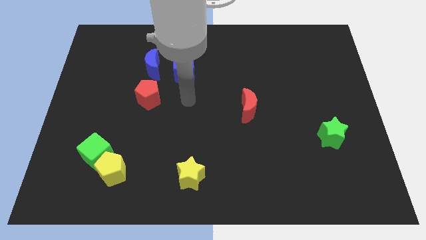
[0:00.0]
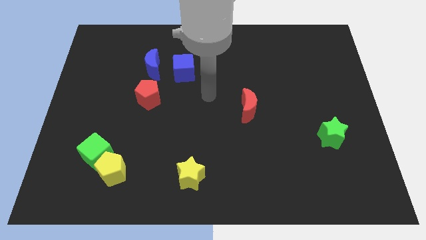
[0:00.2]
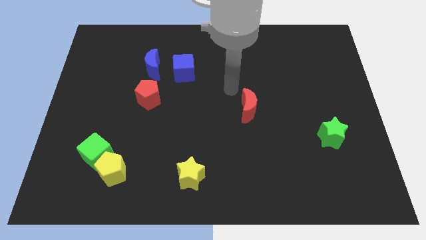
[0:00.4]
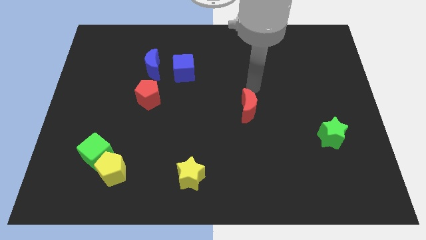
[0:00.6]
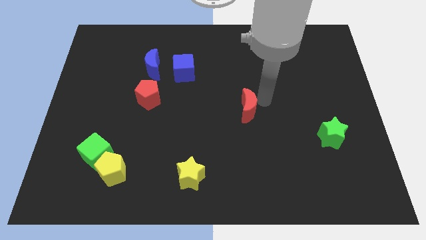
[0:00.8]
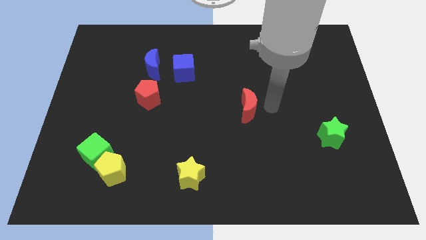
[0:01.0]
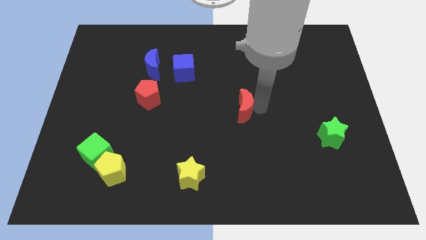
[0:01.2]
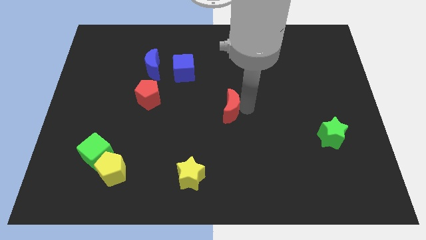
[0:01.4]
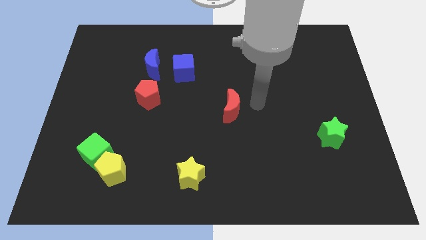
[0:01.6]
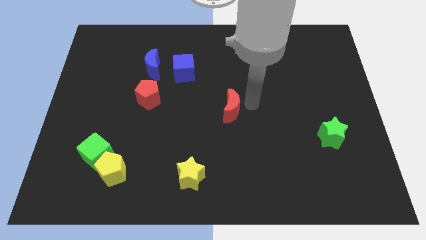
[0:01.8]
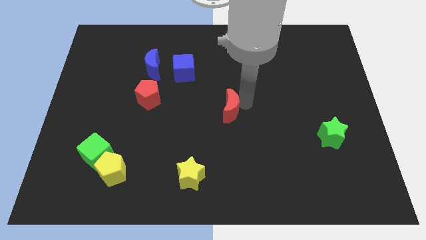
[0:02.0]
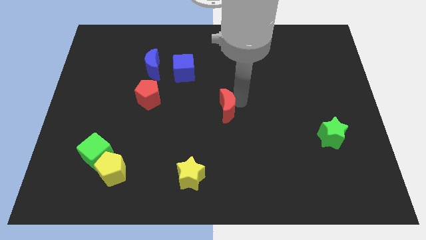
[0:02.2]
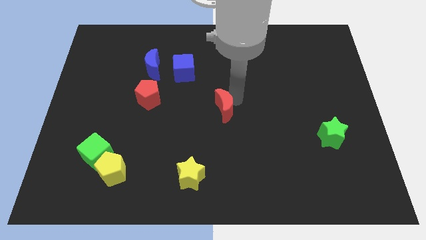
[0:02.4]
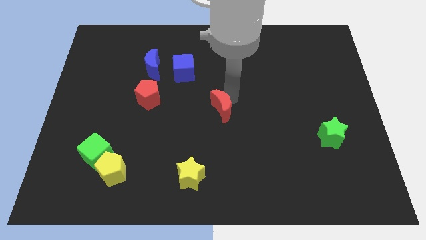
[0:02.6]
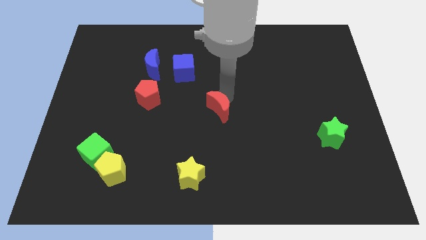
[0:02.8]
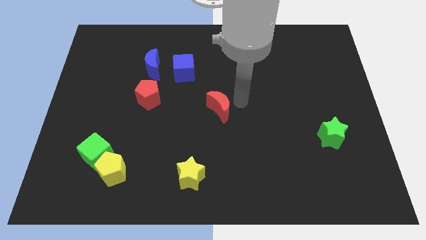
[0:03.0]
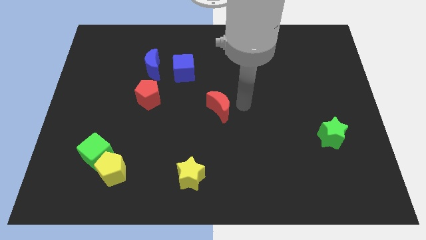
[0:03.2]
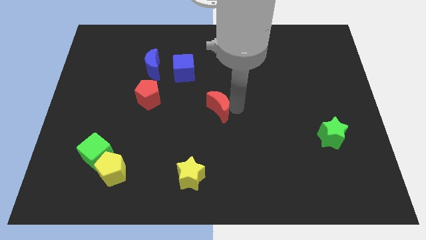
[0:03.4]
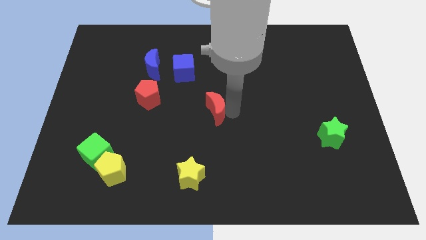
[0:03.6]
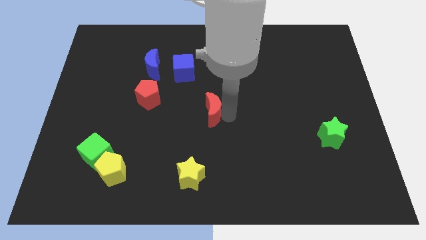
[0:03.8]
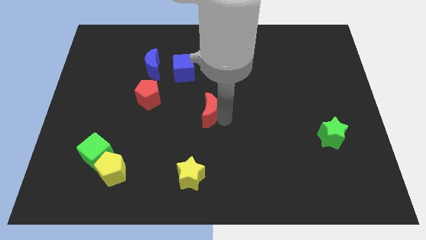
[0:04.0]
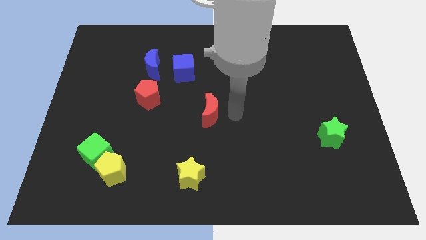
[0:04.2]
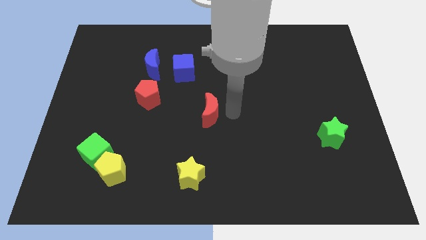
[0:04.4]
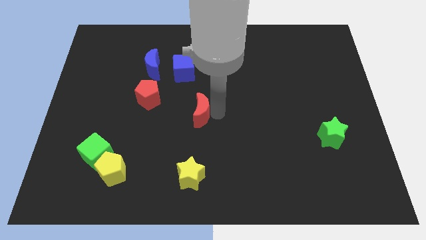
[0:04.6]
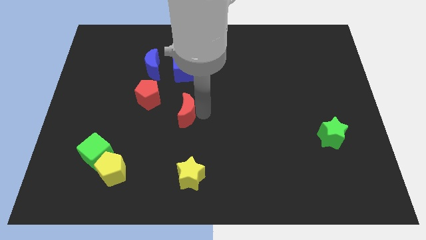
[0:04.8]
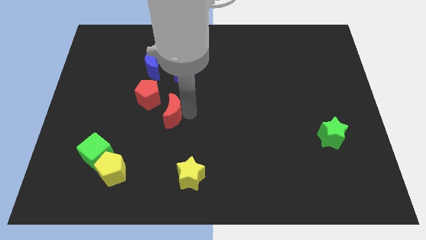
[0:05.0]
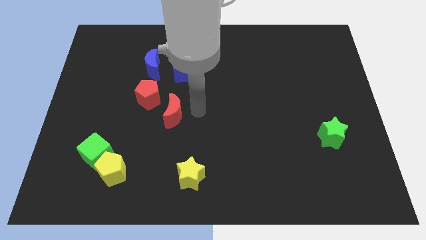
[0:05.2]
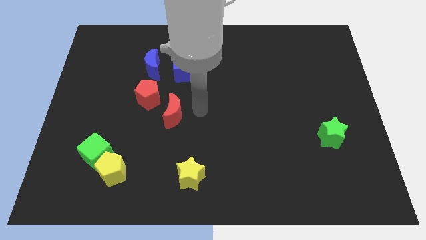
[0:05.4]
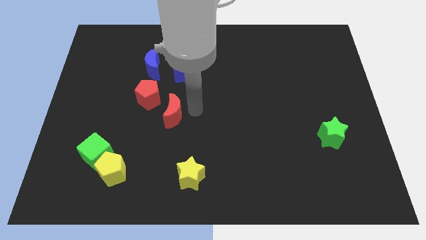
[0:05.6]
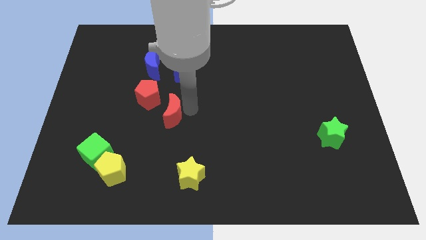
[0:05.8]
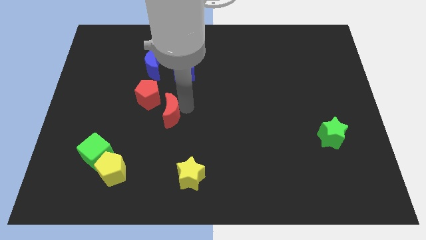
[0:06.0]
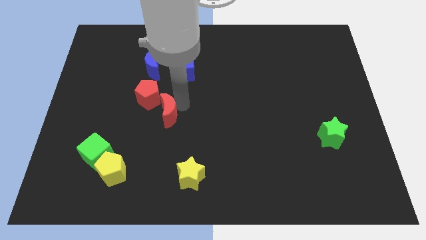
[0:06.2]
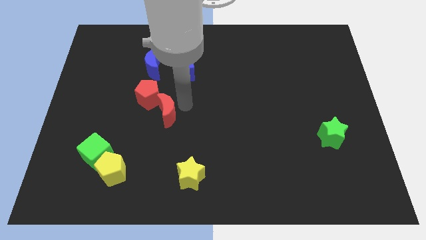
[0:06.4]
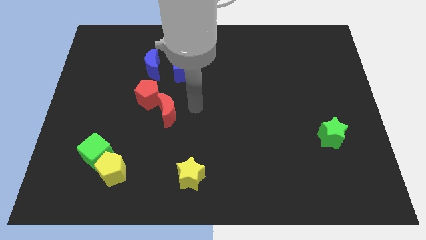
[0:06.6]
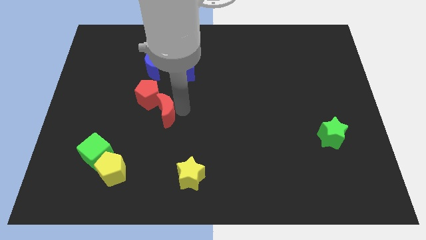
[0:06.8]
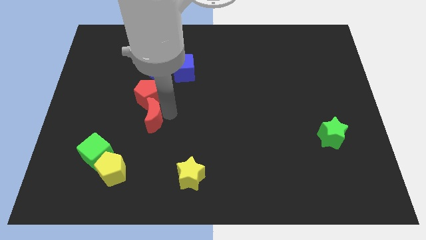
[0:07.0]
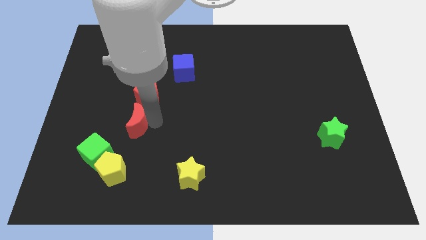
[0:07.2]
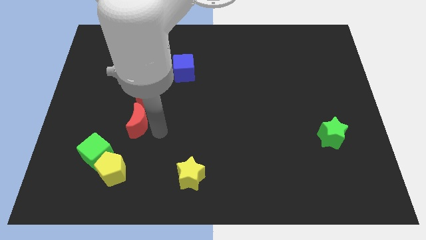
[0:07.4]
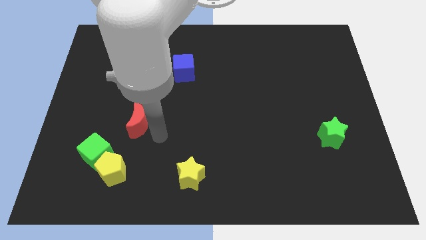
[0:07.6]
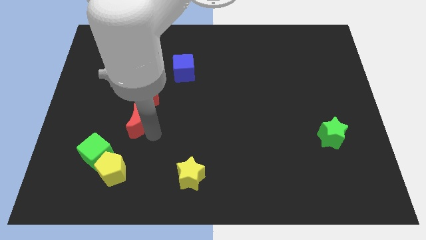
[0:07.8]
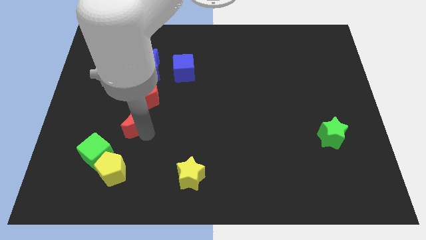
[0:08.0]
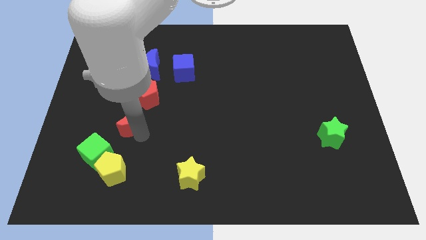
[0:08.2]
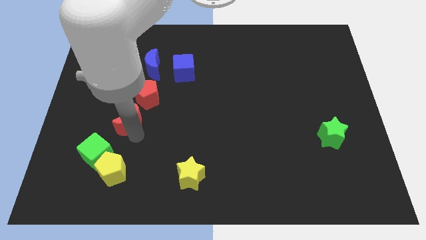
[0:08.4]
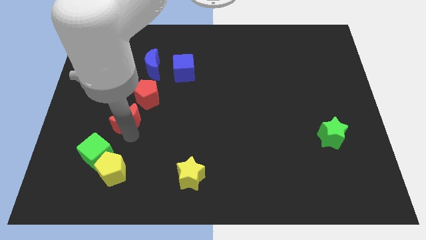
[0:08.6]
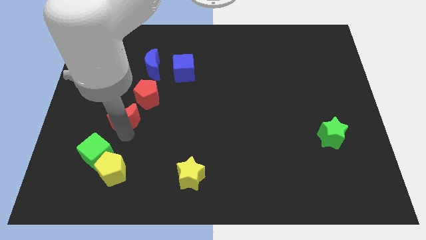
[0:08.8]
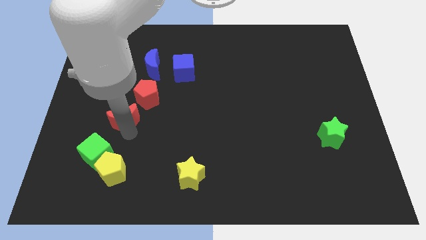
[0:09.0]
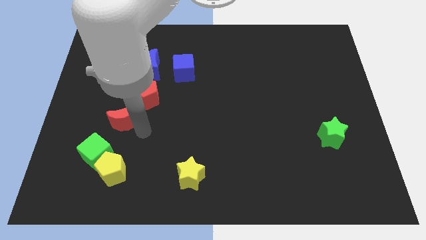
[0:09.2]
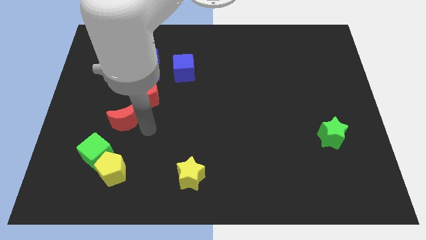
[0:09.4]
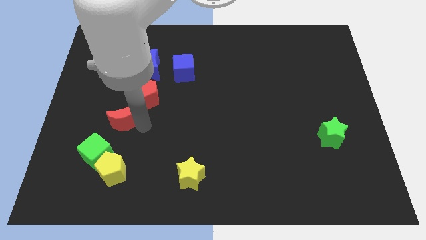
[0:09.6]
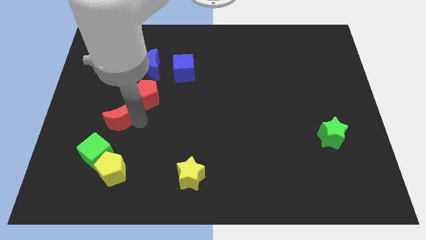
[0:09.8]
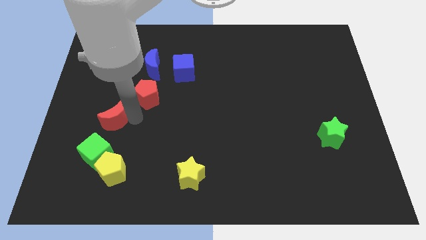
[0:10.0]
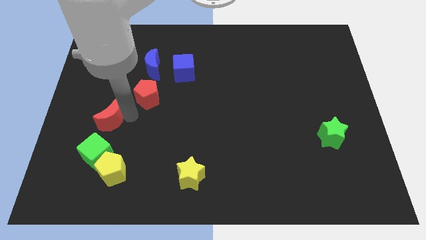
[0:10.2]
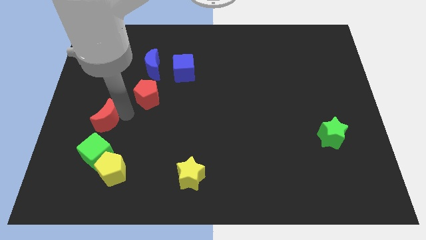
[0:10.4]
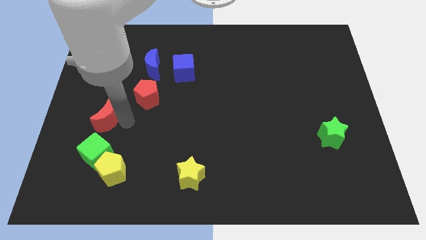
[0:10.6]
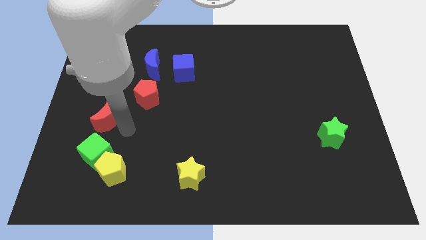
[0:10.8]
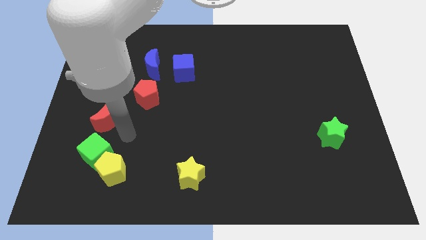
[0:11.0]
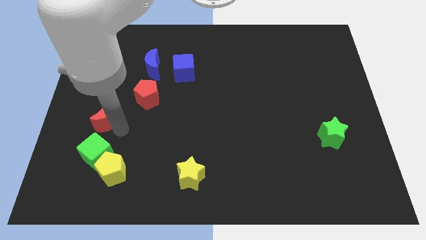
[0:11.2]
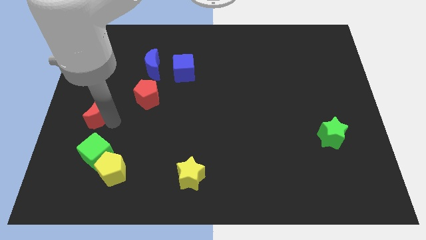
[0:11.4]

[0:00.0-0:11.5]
put the red moon to the left side
